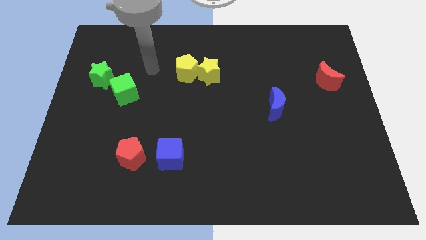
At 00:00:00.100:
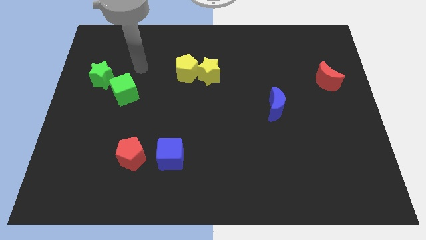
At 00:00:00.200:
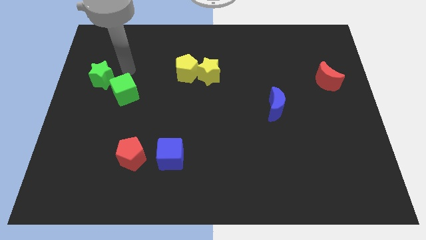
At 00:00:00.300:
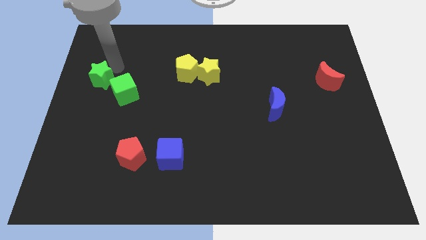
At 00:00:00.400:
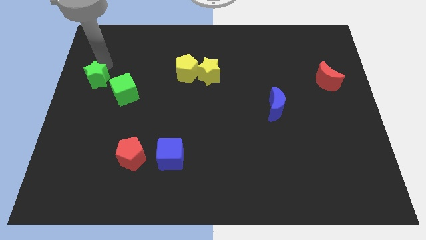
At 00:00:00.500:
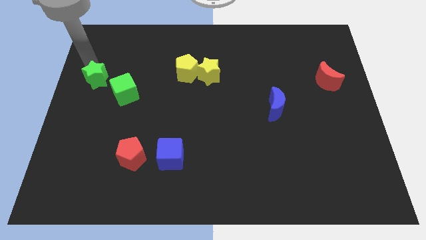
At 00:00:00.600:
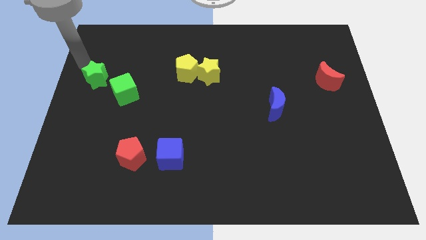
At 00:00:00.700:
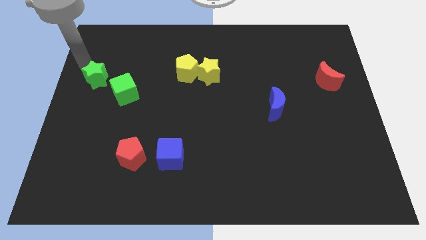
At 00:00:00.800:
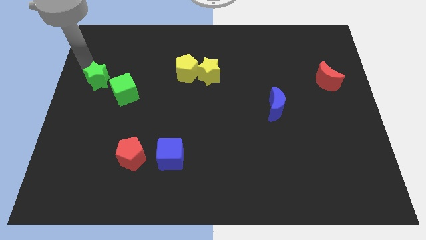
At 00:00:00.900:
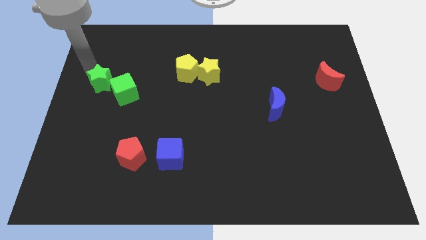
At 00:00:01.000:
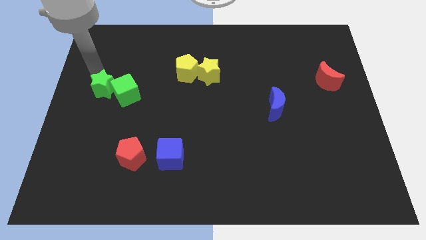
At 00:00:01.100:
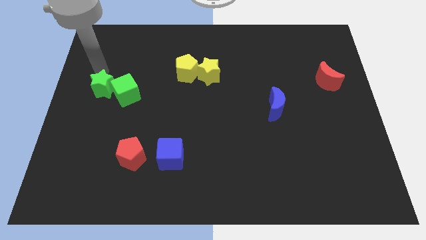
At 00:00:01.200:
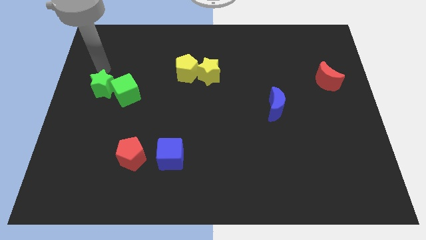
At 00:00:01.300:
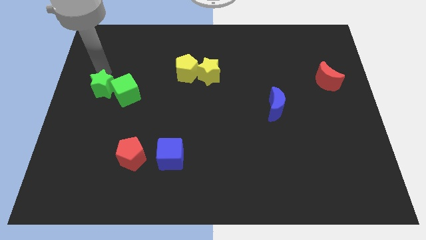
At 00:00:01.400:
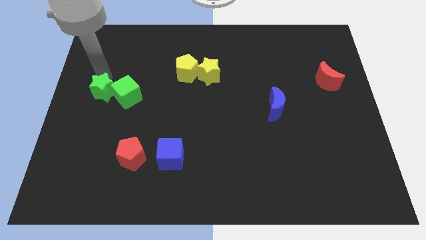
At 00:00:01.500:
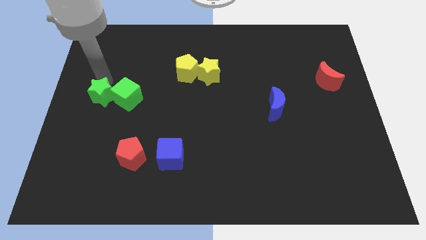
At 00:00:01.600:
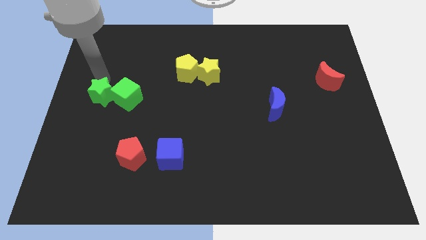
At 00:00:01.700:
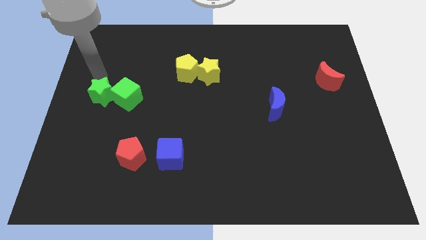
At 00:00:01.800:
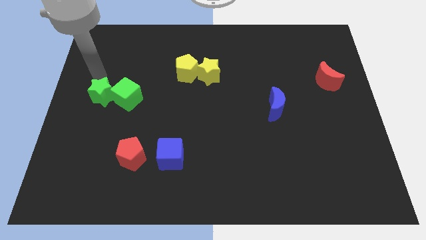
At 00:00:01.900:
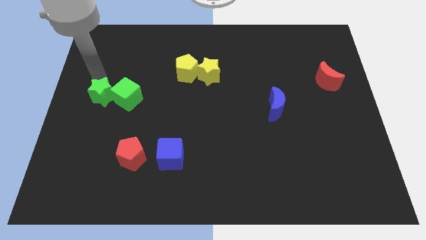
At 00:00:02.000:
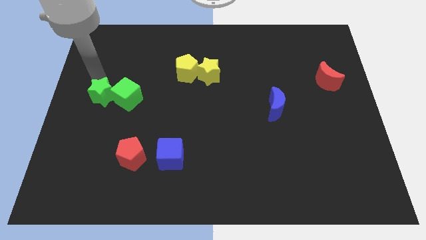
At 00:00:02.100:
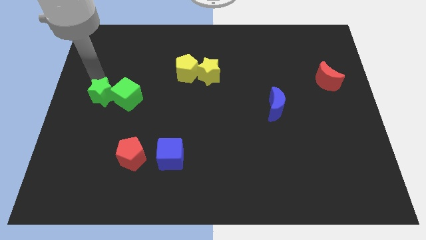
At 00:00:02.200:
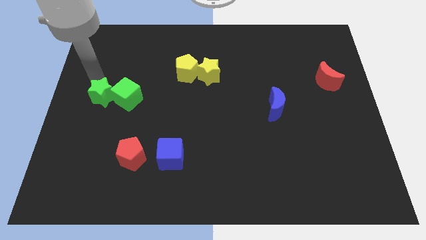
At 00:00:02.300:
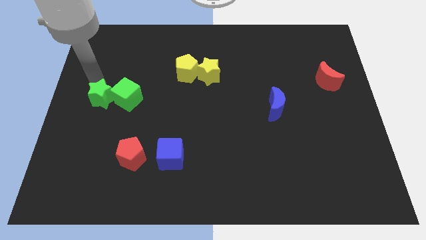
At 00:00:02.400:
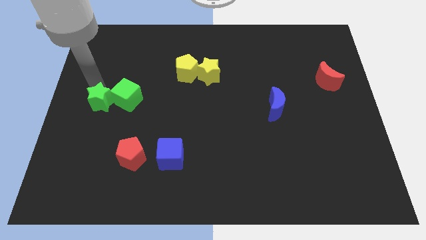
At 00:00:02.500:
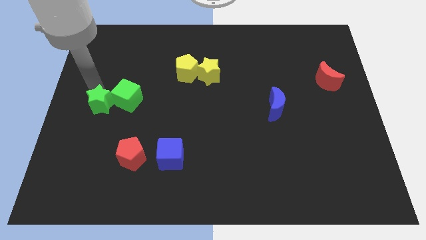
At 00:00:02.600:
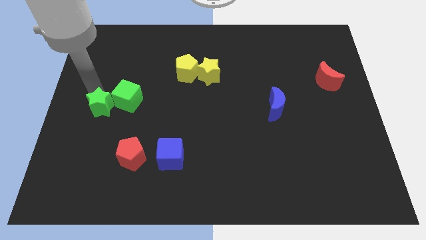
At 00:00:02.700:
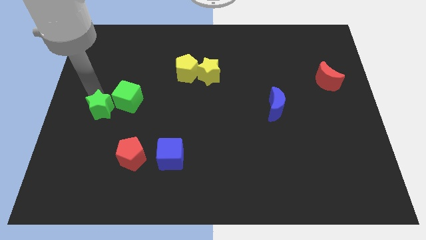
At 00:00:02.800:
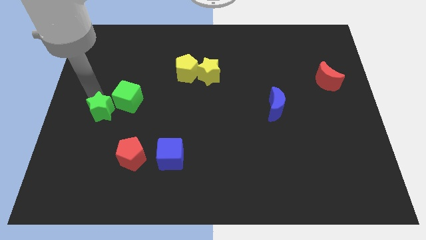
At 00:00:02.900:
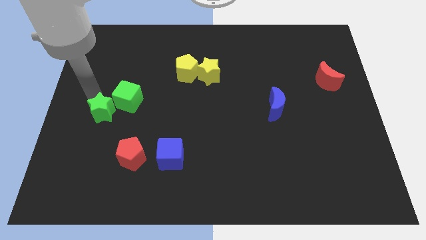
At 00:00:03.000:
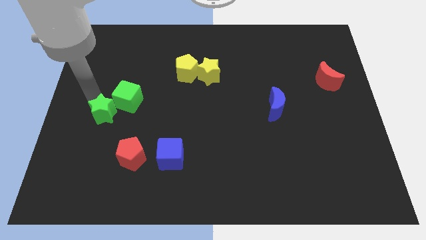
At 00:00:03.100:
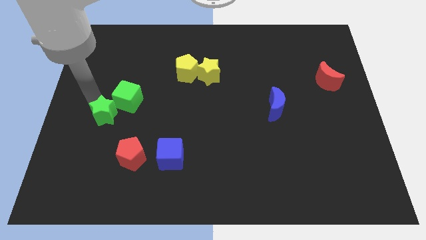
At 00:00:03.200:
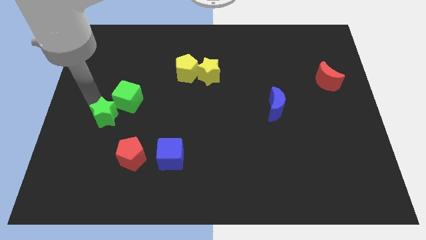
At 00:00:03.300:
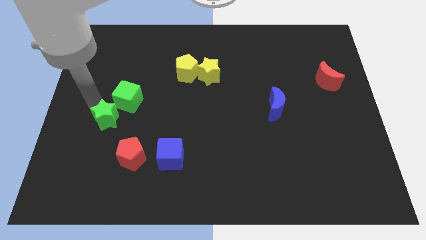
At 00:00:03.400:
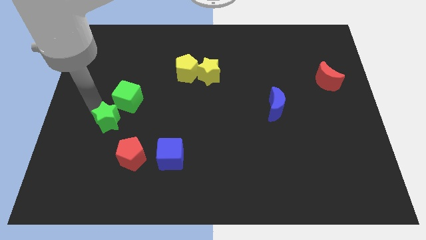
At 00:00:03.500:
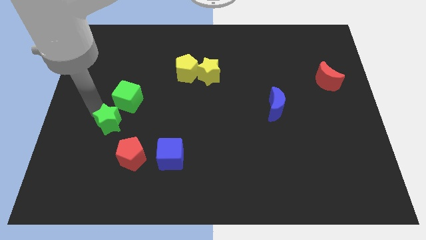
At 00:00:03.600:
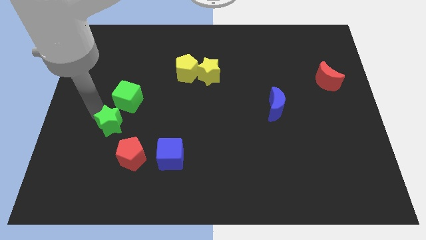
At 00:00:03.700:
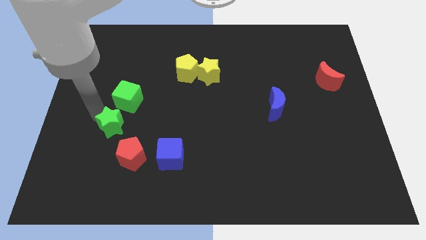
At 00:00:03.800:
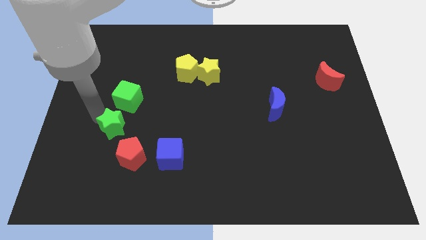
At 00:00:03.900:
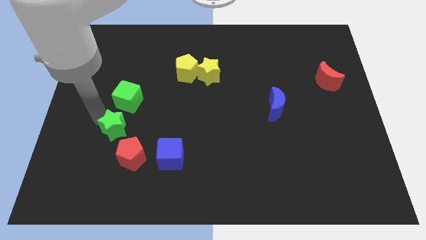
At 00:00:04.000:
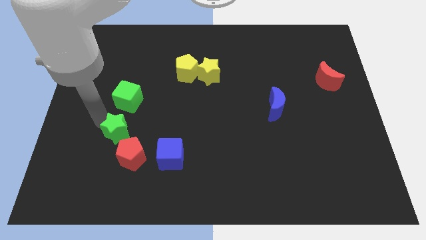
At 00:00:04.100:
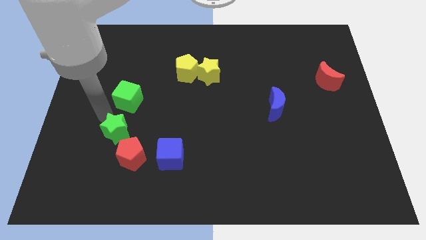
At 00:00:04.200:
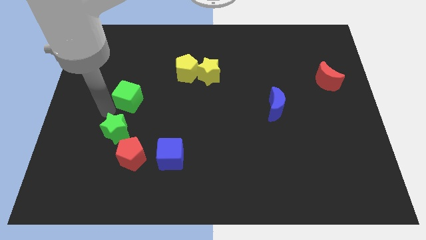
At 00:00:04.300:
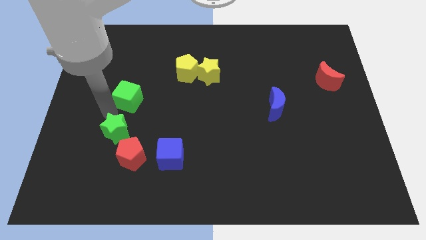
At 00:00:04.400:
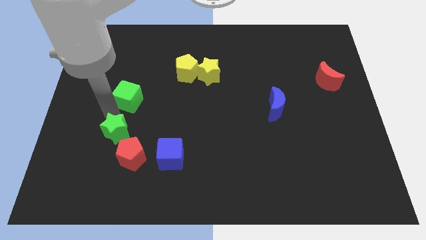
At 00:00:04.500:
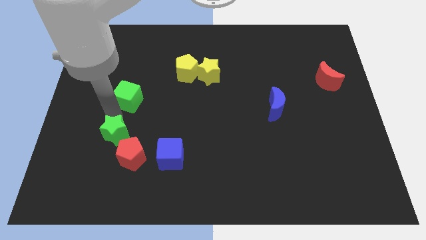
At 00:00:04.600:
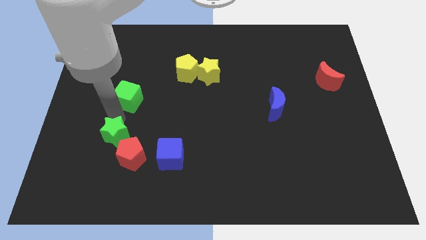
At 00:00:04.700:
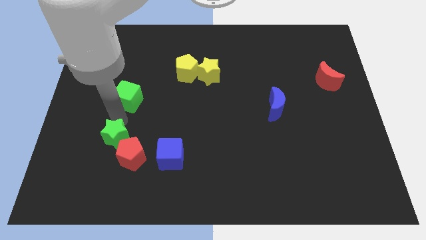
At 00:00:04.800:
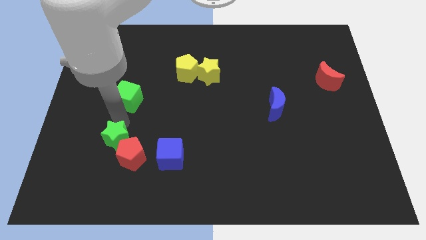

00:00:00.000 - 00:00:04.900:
push the green star to the red pentagon

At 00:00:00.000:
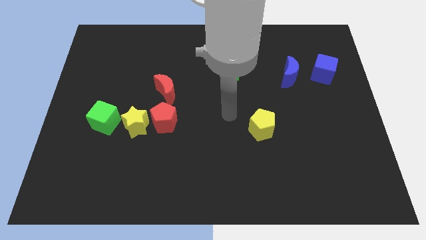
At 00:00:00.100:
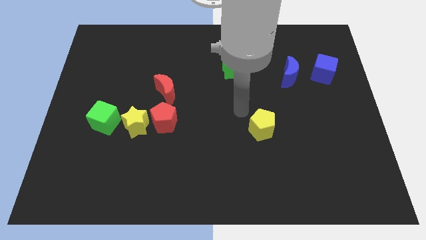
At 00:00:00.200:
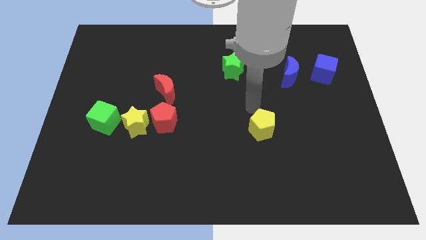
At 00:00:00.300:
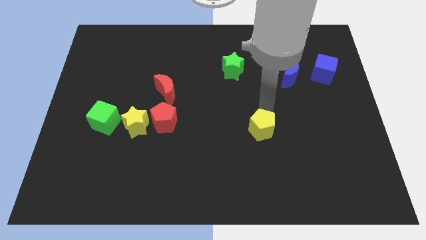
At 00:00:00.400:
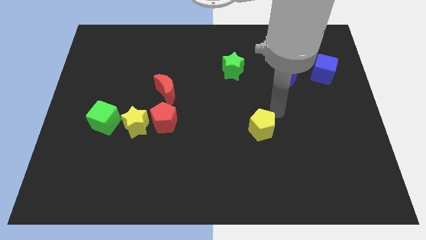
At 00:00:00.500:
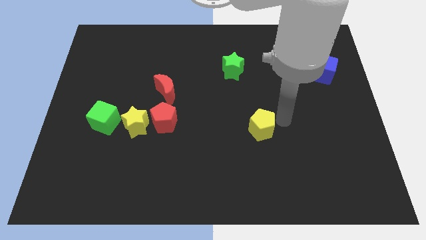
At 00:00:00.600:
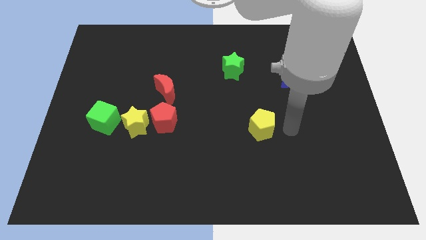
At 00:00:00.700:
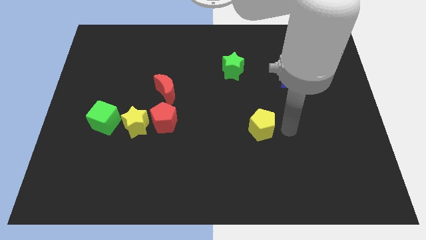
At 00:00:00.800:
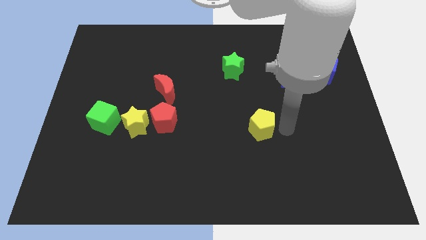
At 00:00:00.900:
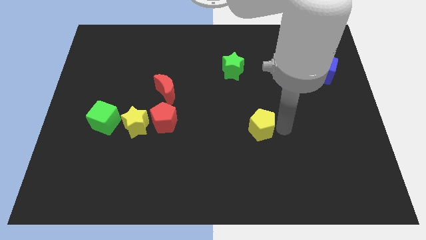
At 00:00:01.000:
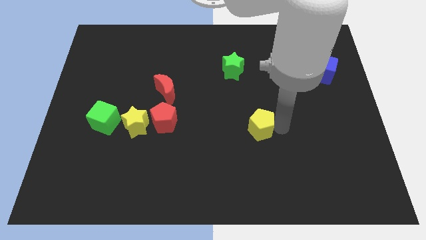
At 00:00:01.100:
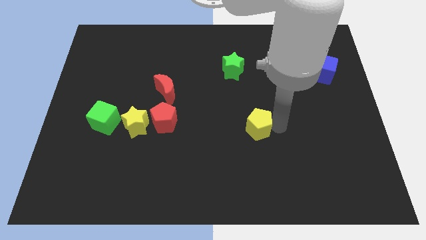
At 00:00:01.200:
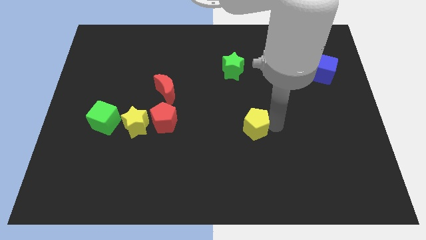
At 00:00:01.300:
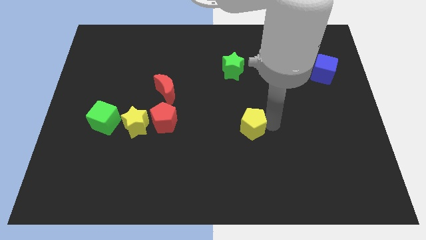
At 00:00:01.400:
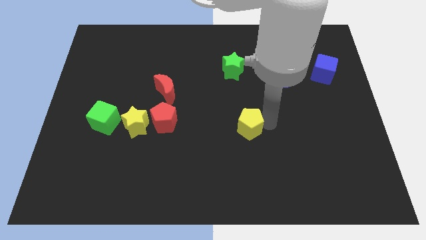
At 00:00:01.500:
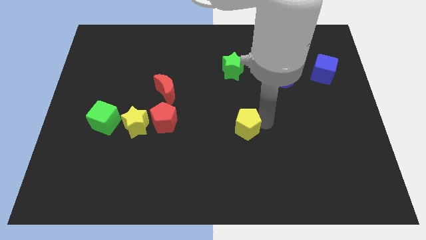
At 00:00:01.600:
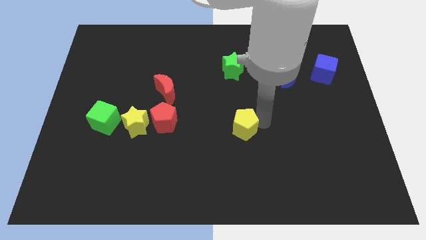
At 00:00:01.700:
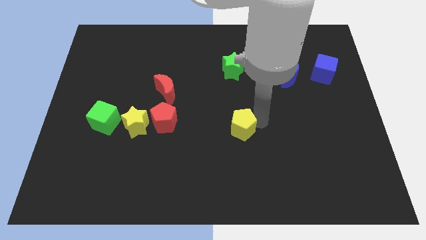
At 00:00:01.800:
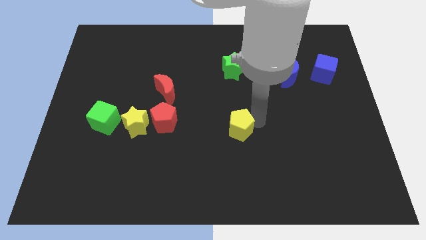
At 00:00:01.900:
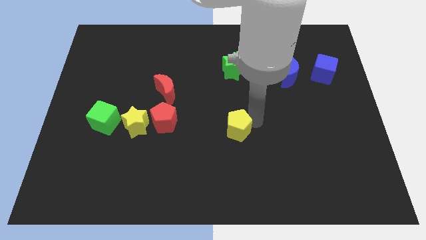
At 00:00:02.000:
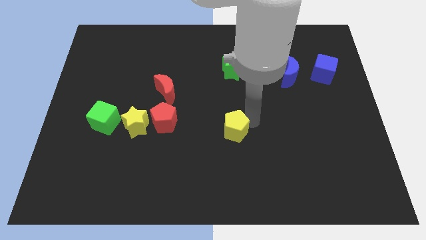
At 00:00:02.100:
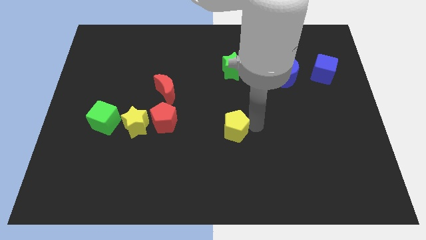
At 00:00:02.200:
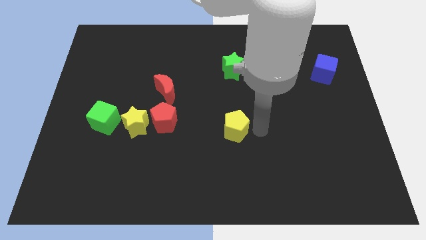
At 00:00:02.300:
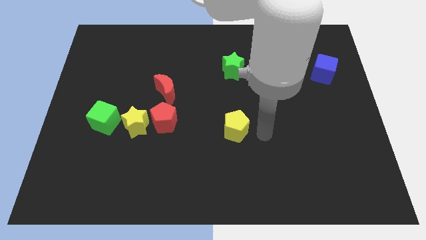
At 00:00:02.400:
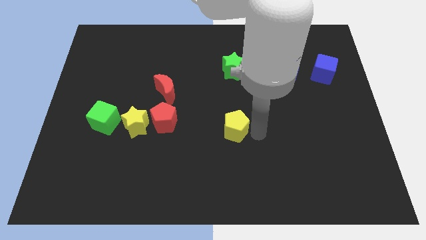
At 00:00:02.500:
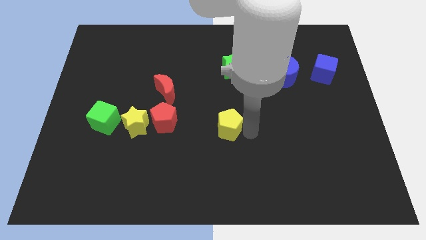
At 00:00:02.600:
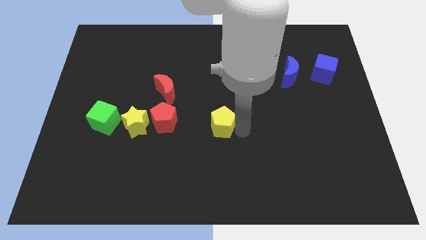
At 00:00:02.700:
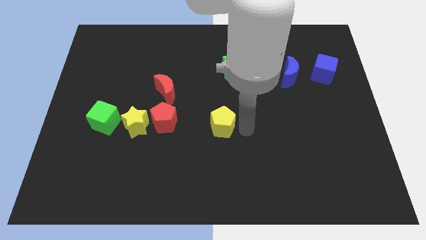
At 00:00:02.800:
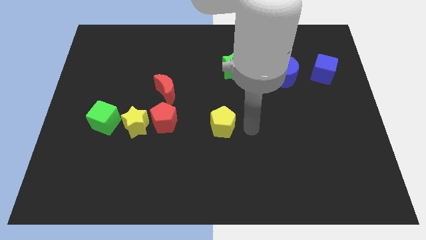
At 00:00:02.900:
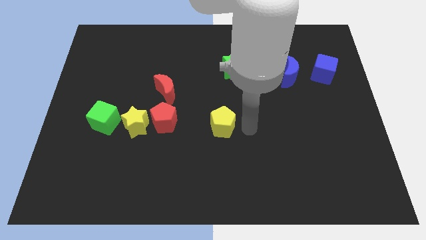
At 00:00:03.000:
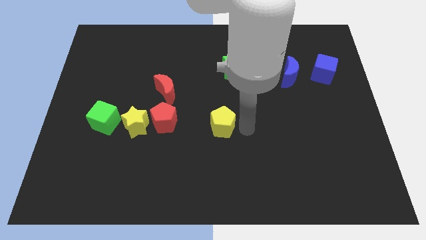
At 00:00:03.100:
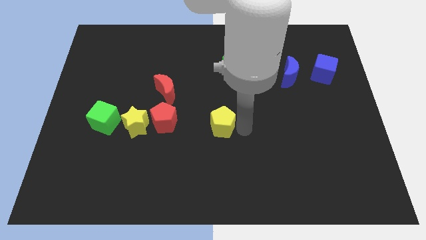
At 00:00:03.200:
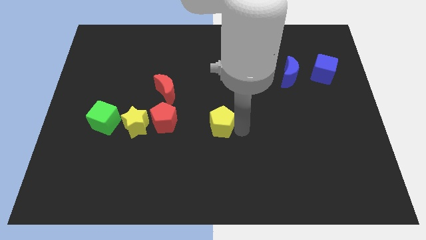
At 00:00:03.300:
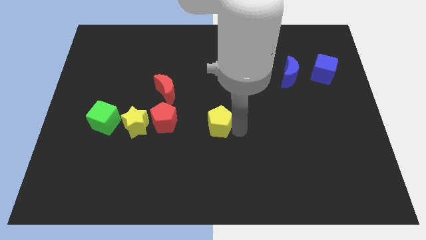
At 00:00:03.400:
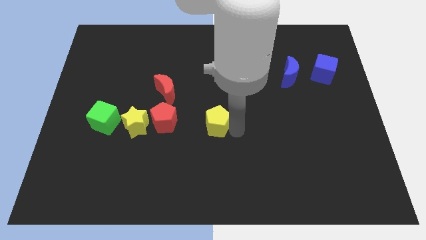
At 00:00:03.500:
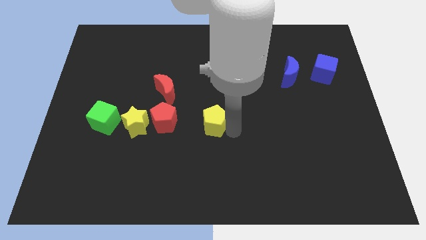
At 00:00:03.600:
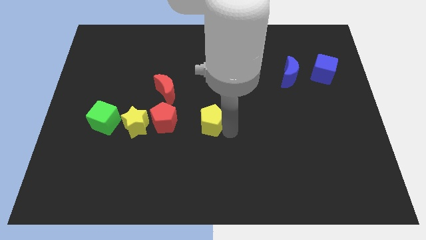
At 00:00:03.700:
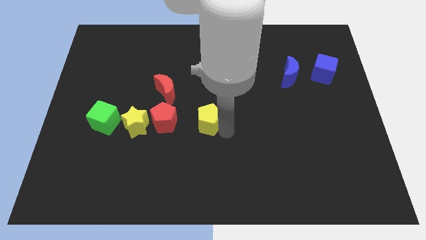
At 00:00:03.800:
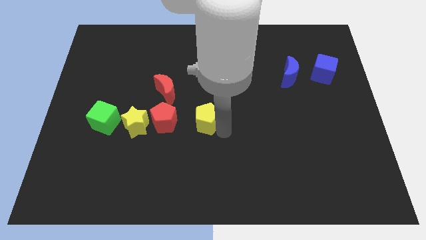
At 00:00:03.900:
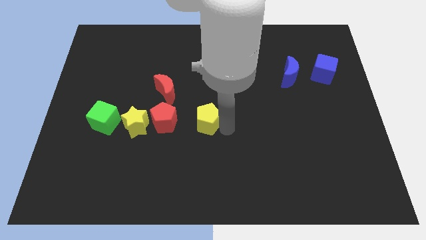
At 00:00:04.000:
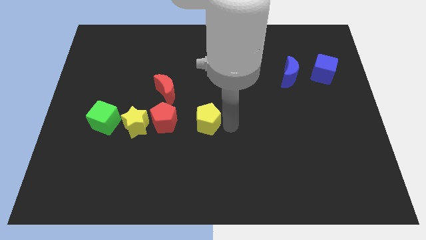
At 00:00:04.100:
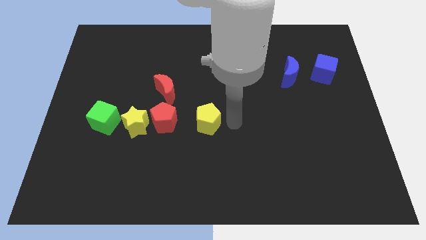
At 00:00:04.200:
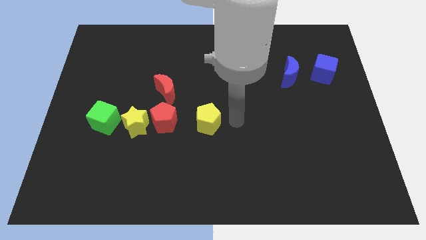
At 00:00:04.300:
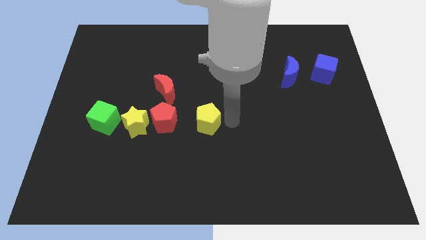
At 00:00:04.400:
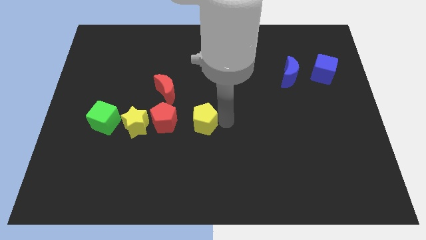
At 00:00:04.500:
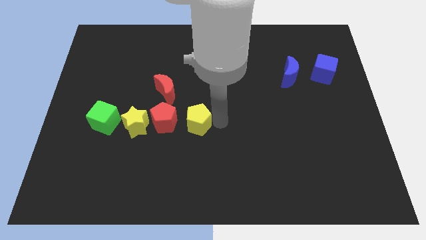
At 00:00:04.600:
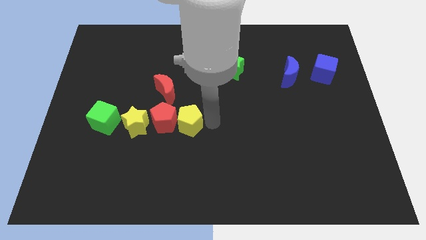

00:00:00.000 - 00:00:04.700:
push the yellow pentagon towards the red pentagon
